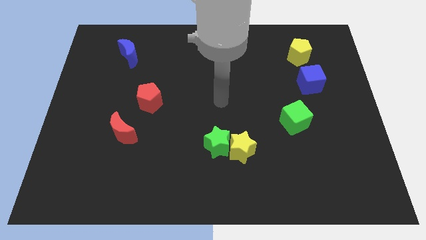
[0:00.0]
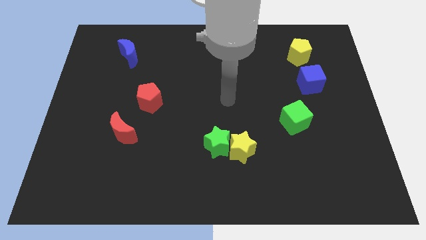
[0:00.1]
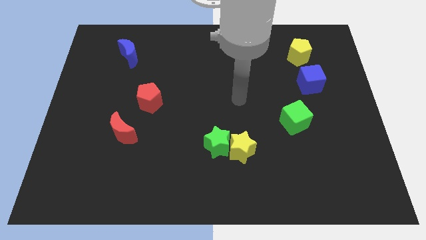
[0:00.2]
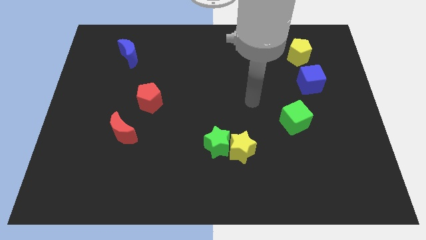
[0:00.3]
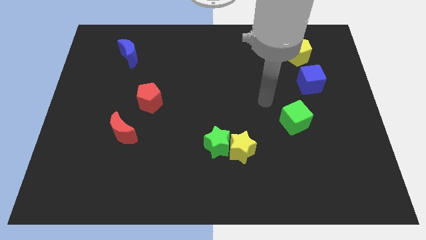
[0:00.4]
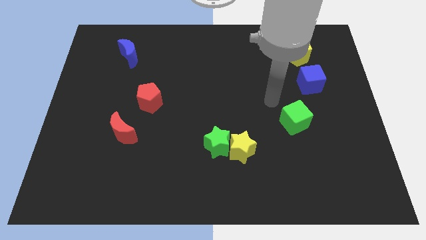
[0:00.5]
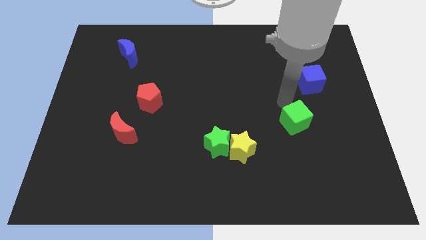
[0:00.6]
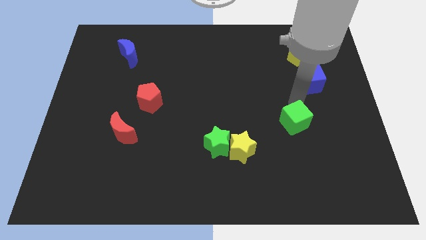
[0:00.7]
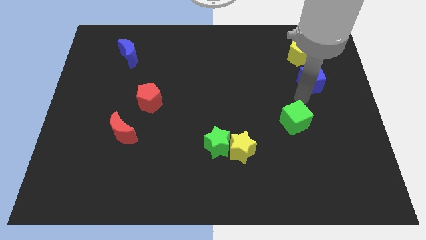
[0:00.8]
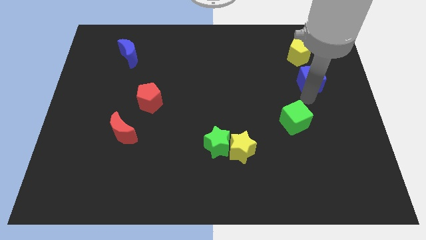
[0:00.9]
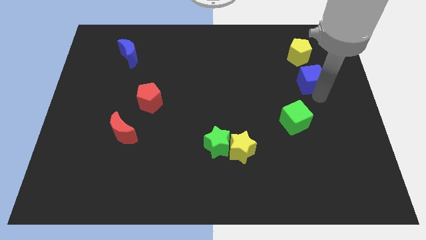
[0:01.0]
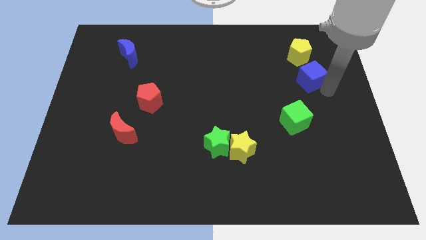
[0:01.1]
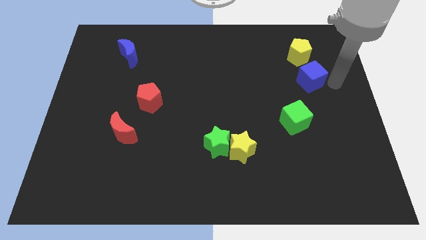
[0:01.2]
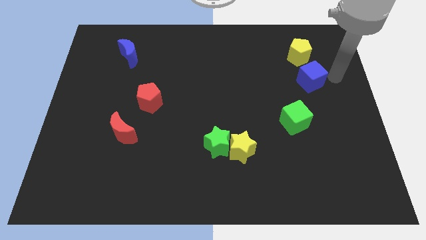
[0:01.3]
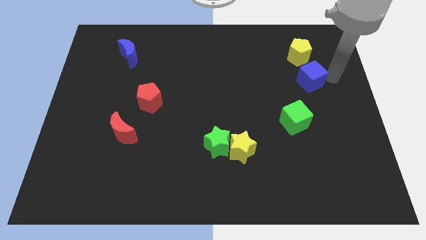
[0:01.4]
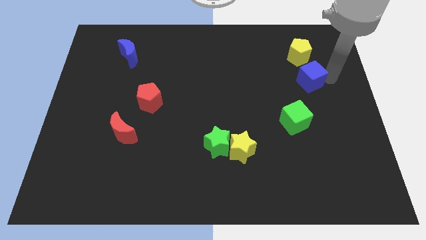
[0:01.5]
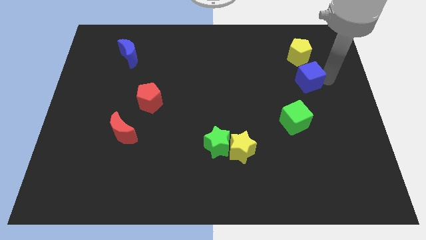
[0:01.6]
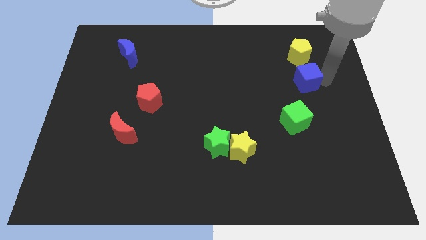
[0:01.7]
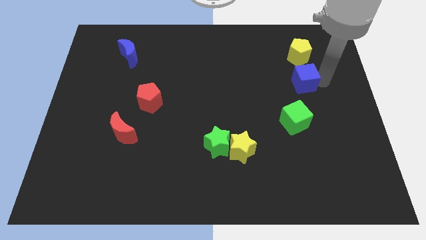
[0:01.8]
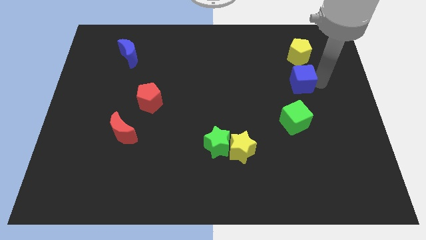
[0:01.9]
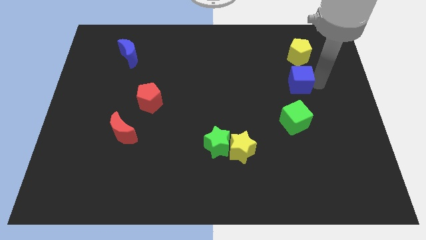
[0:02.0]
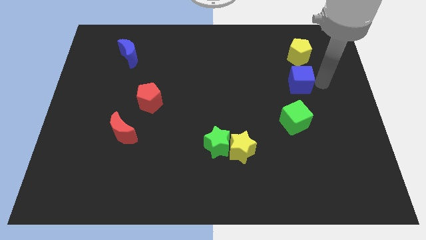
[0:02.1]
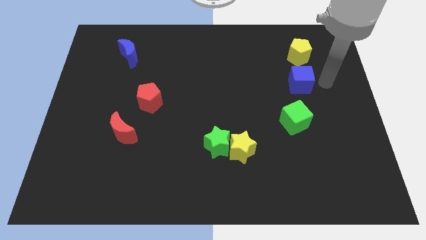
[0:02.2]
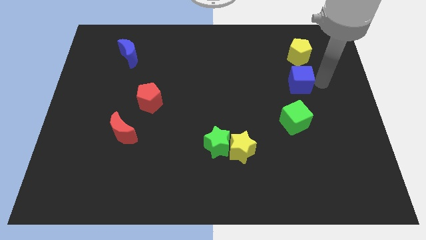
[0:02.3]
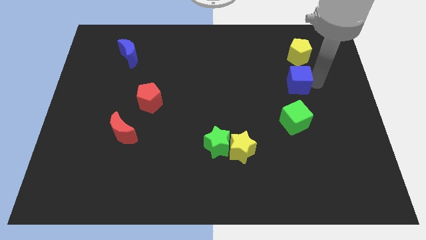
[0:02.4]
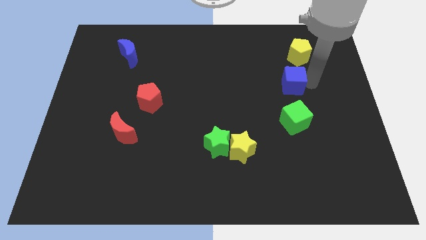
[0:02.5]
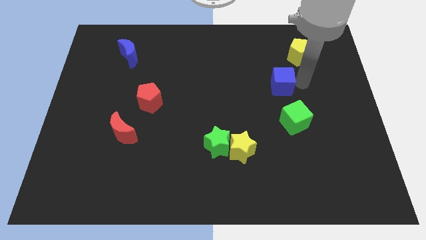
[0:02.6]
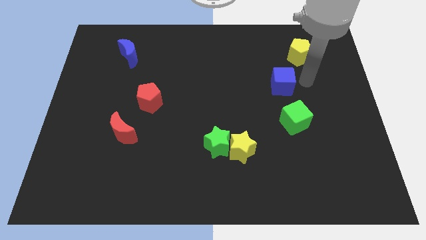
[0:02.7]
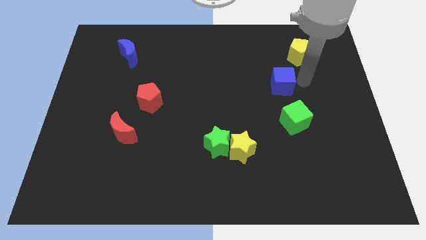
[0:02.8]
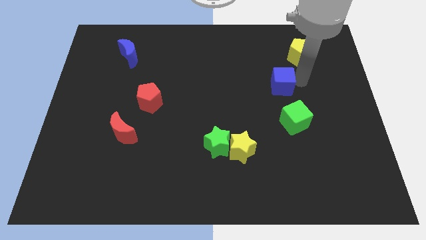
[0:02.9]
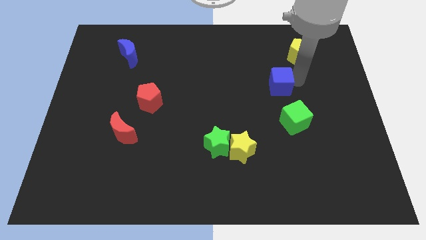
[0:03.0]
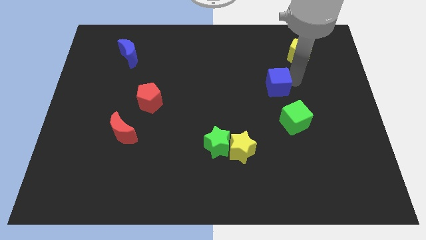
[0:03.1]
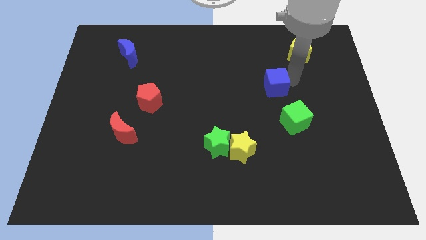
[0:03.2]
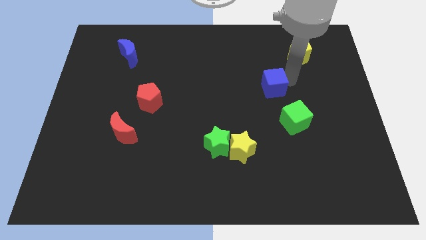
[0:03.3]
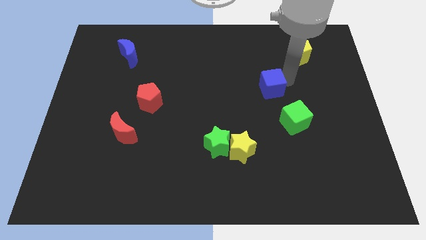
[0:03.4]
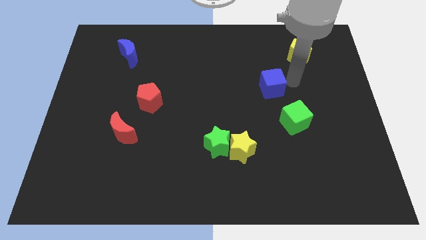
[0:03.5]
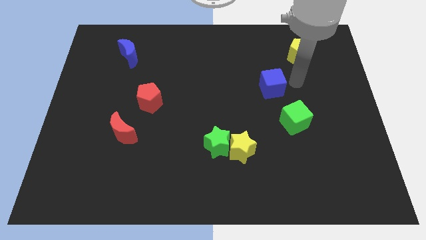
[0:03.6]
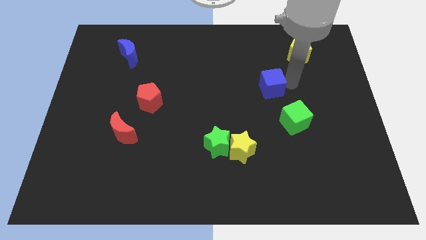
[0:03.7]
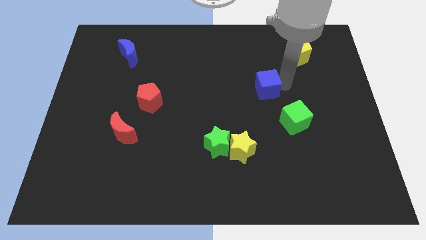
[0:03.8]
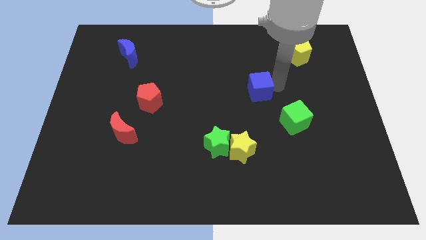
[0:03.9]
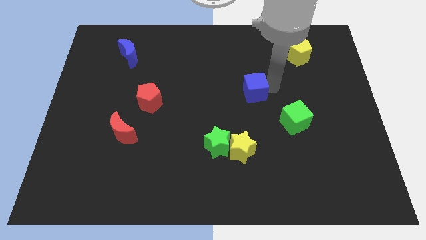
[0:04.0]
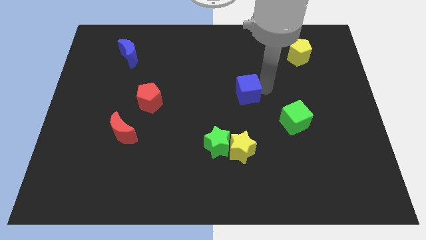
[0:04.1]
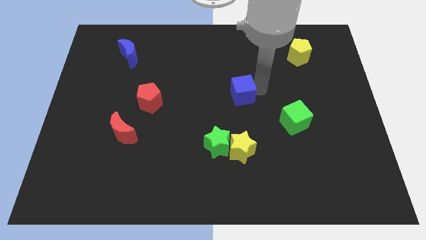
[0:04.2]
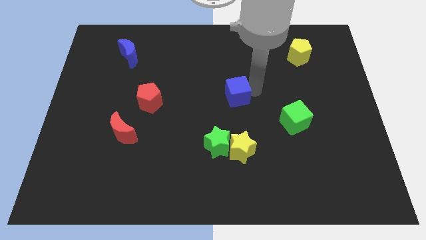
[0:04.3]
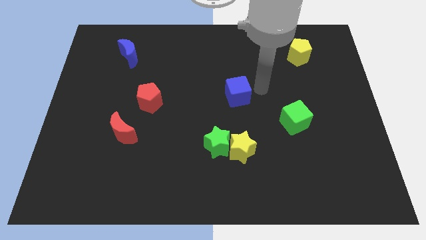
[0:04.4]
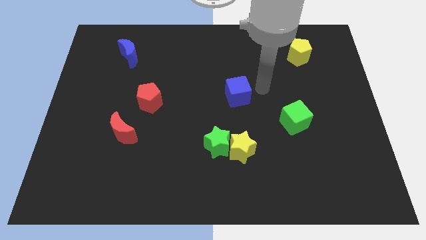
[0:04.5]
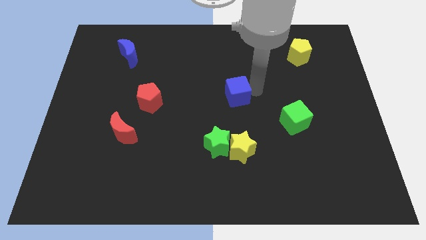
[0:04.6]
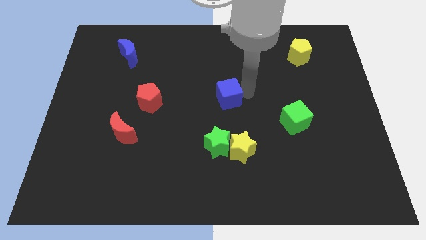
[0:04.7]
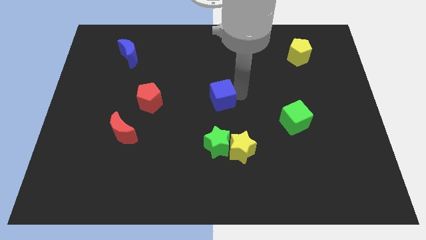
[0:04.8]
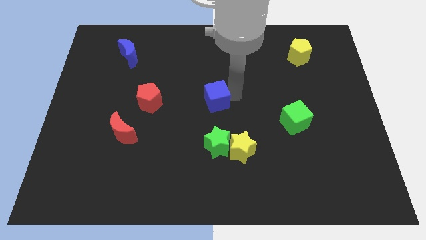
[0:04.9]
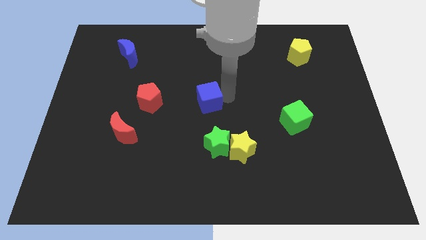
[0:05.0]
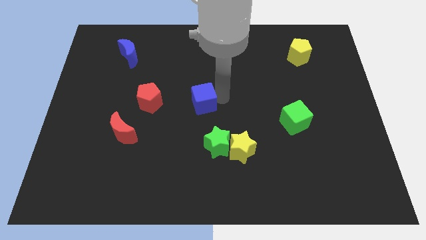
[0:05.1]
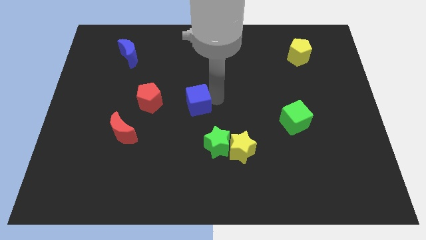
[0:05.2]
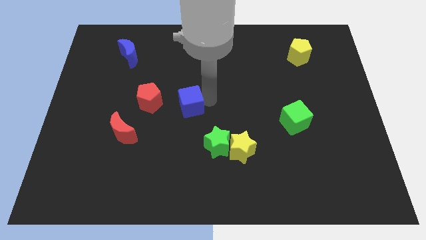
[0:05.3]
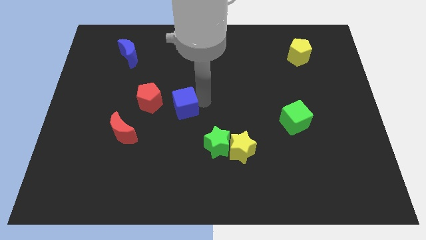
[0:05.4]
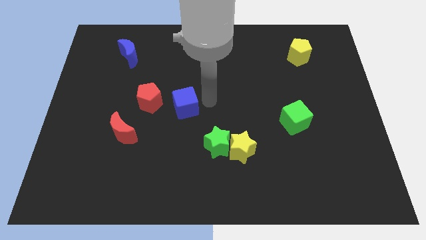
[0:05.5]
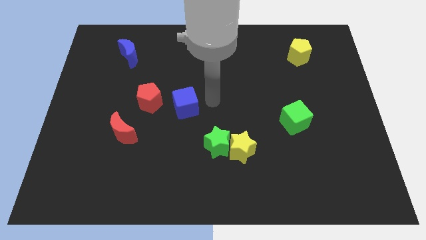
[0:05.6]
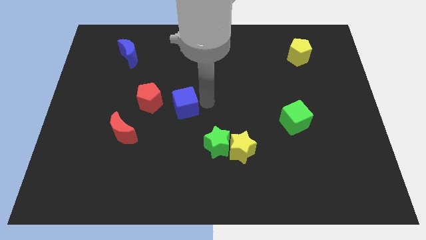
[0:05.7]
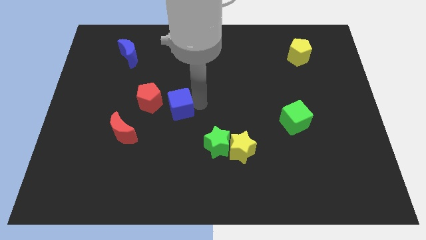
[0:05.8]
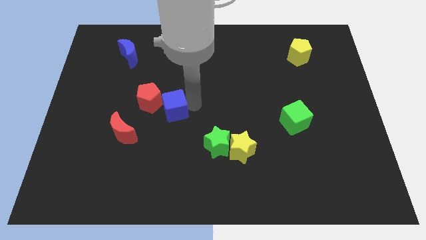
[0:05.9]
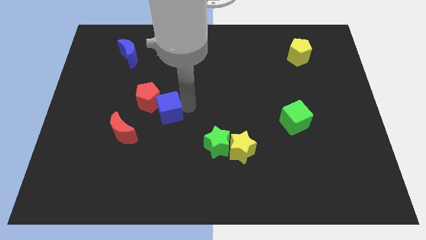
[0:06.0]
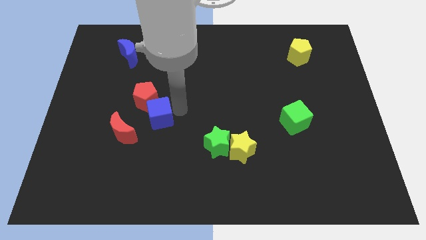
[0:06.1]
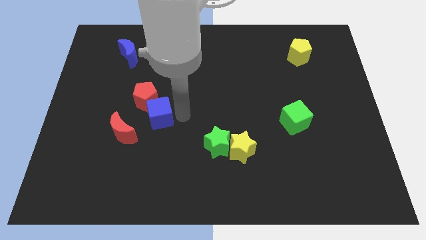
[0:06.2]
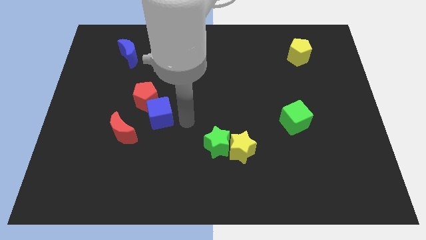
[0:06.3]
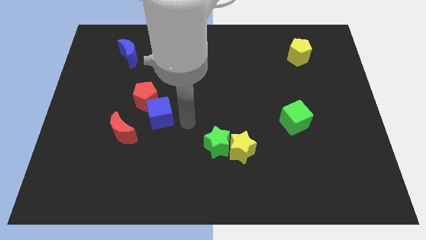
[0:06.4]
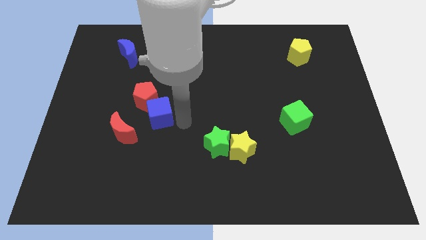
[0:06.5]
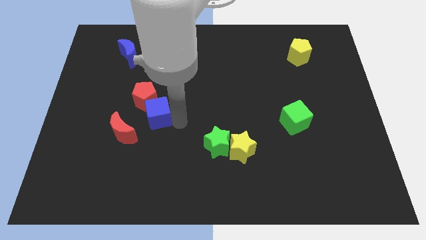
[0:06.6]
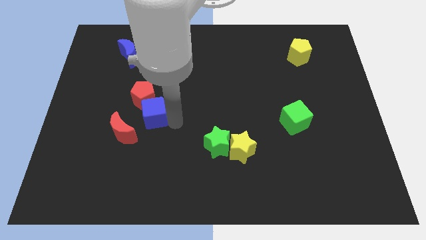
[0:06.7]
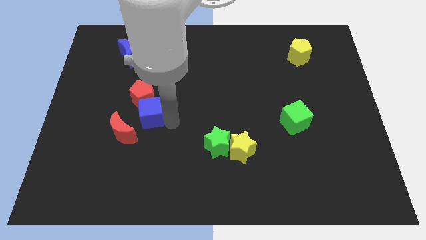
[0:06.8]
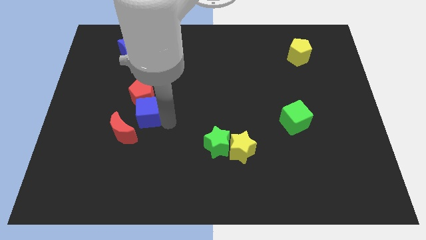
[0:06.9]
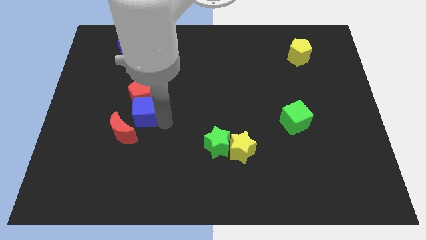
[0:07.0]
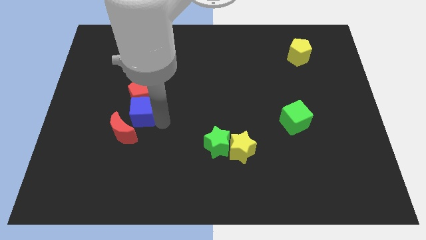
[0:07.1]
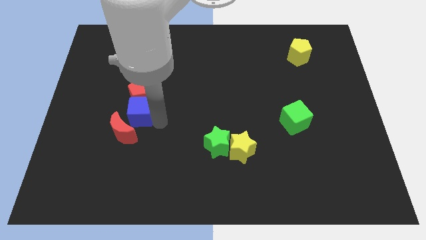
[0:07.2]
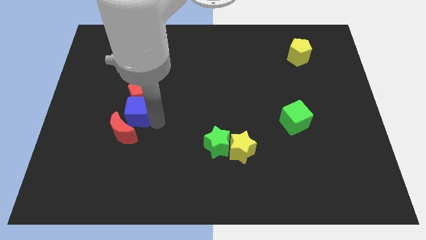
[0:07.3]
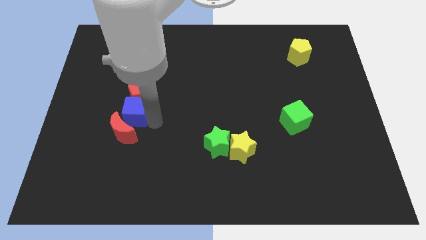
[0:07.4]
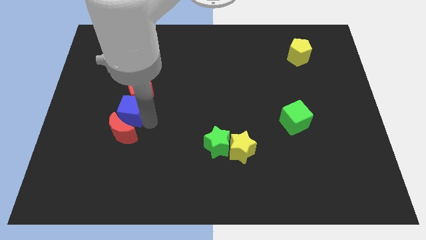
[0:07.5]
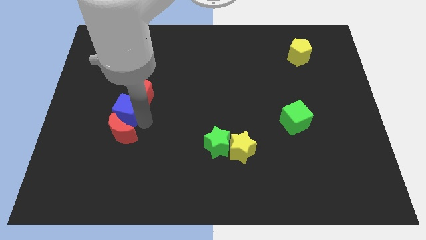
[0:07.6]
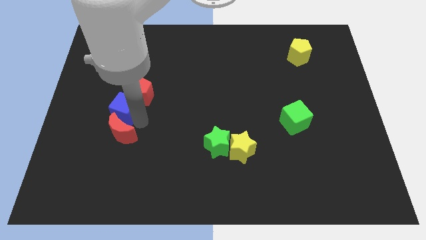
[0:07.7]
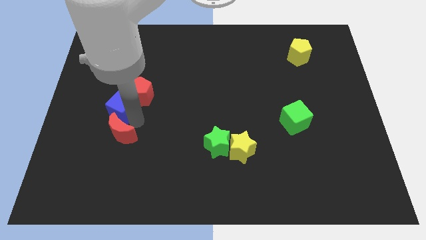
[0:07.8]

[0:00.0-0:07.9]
slide the blue cube left of the red pentagon
